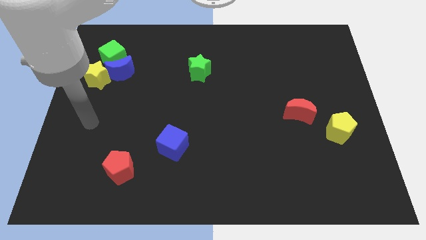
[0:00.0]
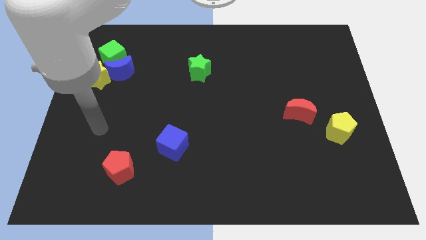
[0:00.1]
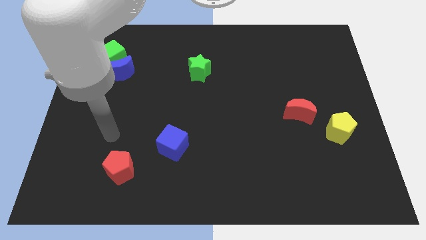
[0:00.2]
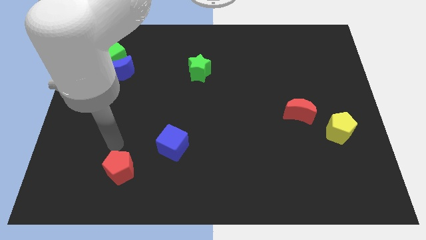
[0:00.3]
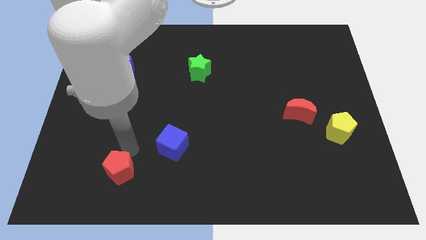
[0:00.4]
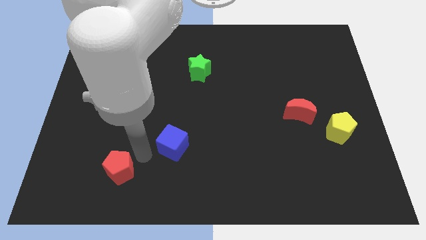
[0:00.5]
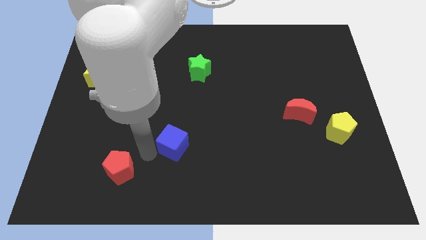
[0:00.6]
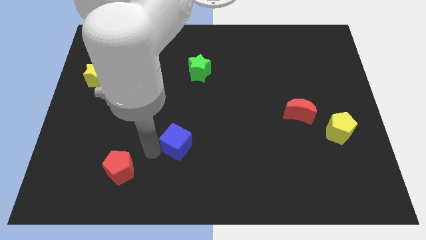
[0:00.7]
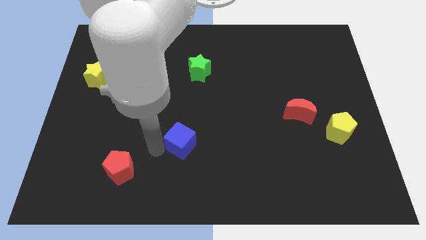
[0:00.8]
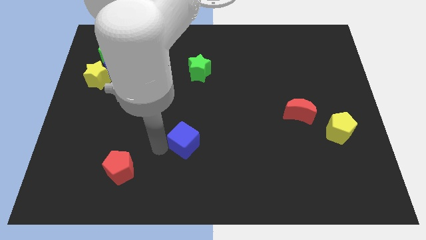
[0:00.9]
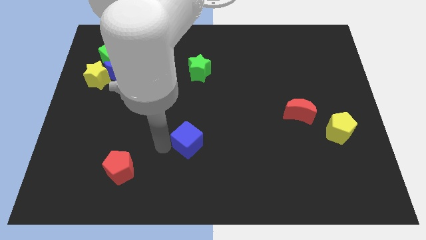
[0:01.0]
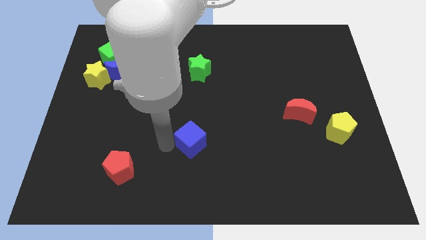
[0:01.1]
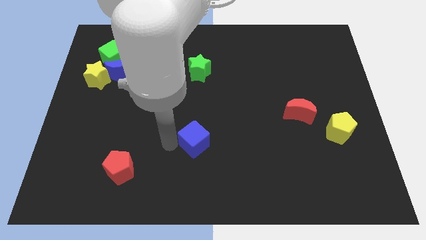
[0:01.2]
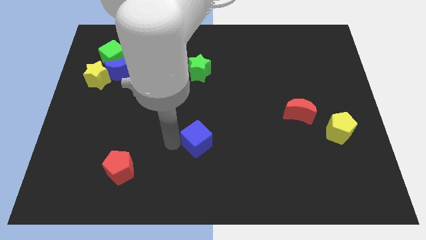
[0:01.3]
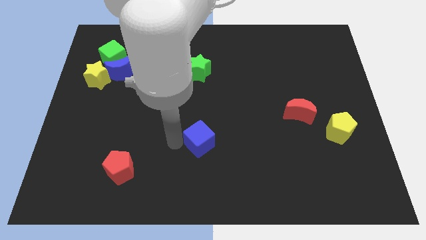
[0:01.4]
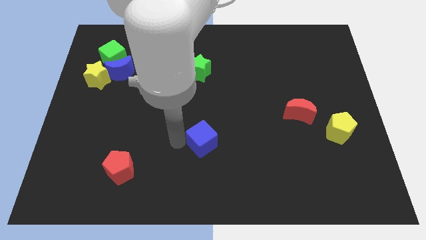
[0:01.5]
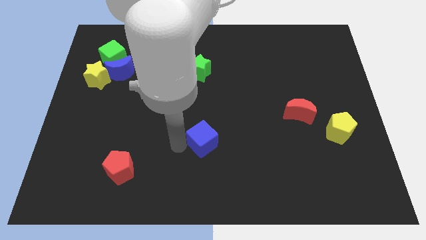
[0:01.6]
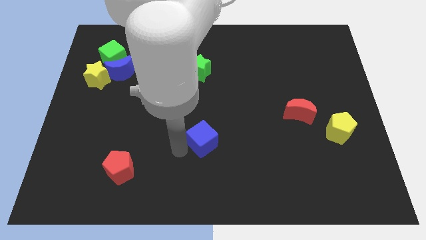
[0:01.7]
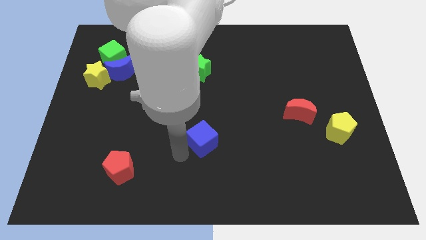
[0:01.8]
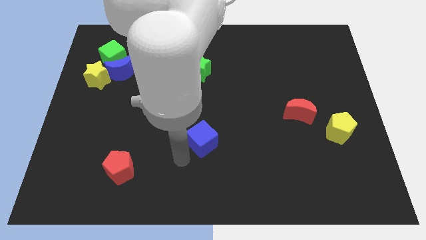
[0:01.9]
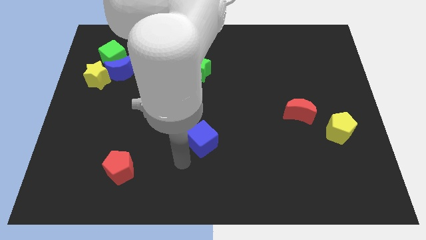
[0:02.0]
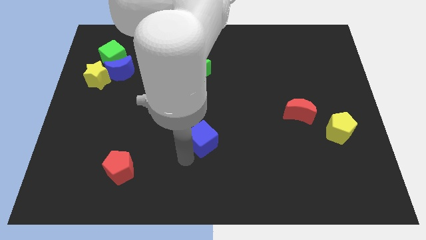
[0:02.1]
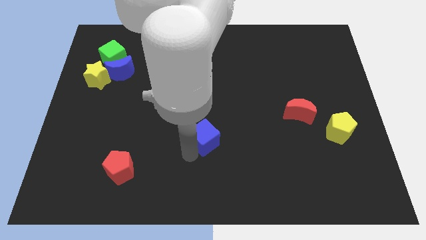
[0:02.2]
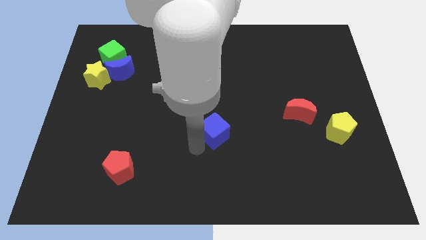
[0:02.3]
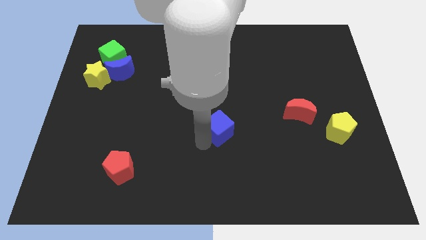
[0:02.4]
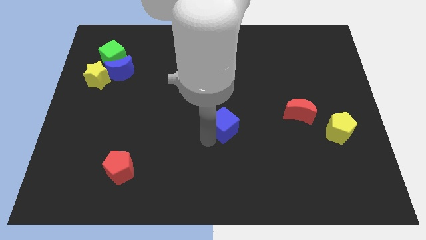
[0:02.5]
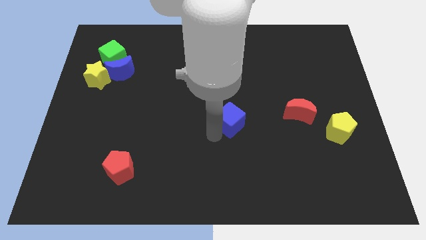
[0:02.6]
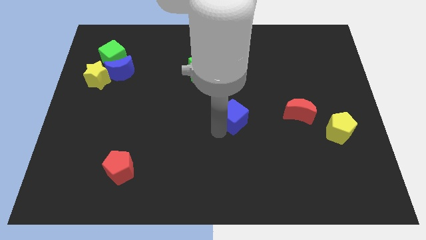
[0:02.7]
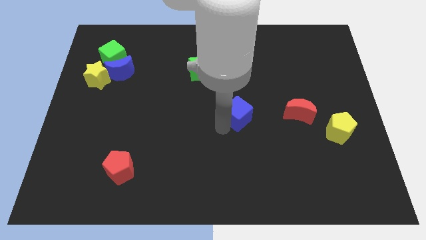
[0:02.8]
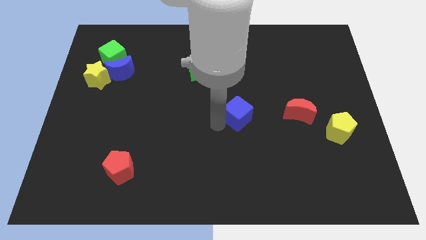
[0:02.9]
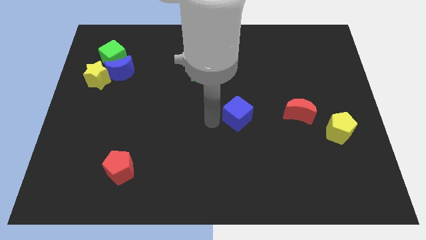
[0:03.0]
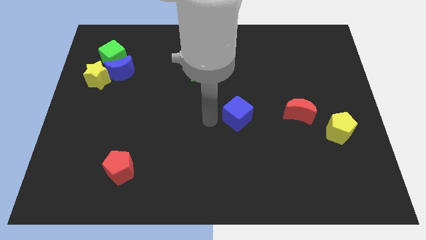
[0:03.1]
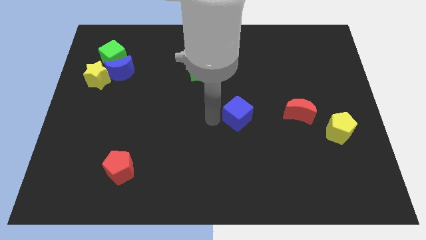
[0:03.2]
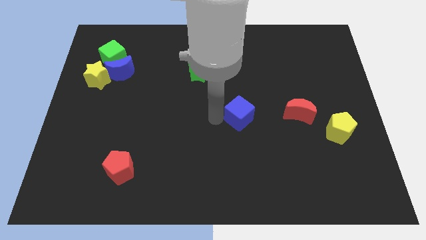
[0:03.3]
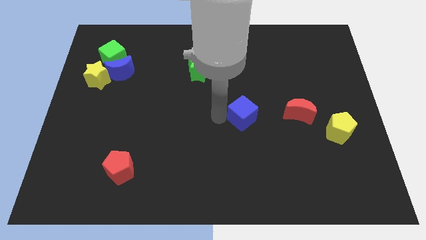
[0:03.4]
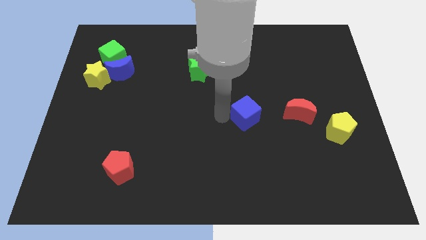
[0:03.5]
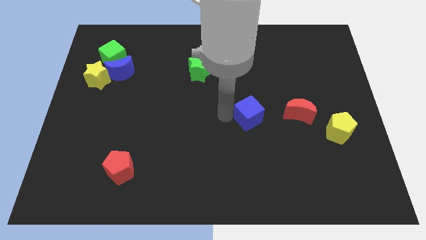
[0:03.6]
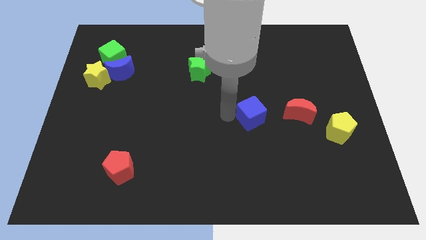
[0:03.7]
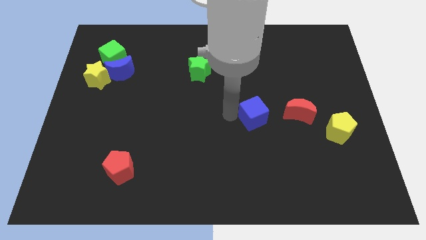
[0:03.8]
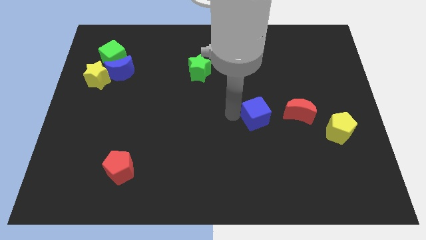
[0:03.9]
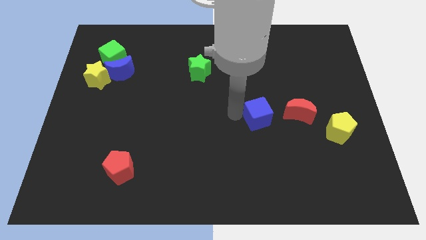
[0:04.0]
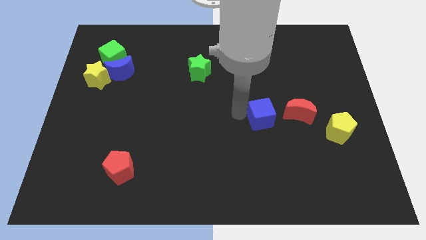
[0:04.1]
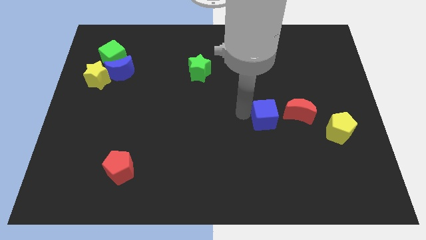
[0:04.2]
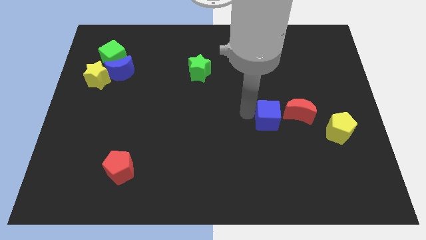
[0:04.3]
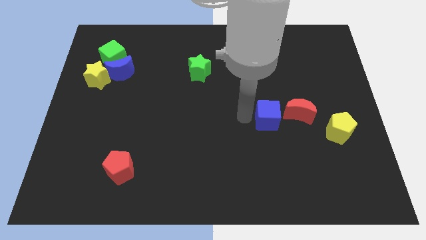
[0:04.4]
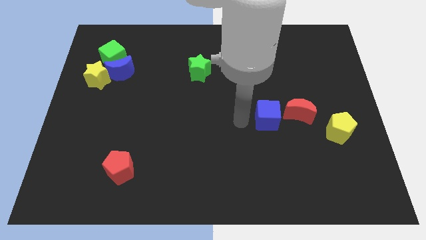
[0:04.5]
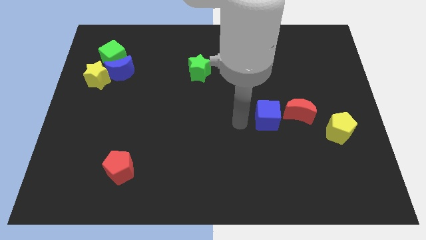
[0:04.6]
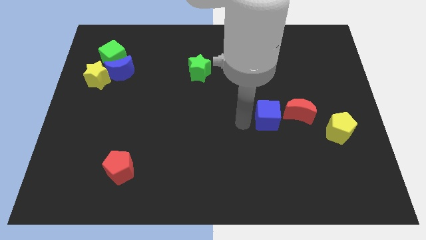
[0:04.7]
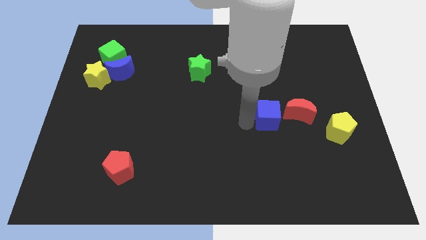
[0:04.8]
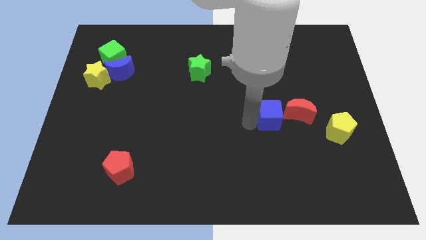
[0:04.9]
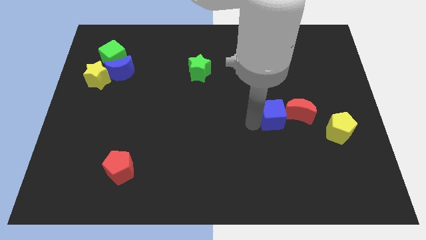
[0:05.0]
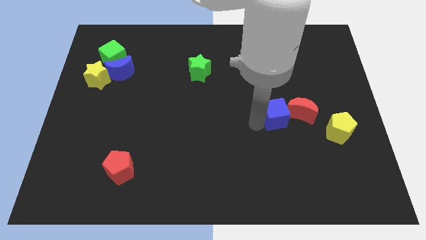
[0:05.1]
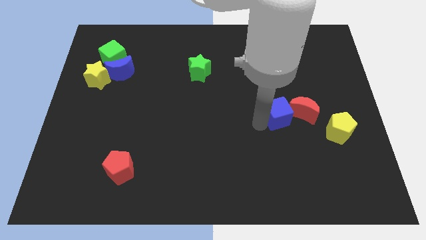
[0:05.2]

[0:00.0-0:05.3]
push the blue cube to the red moon

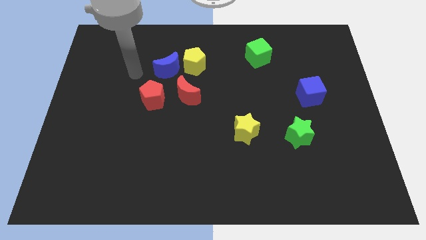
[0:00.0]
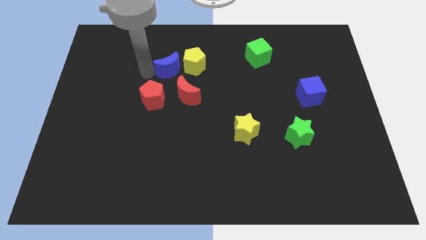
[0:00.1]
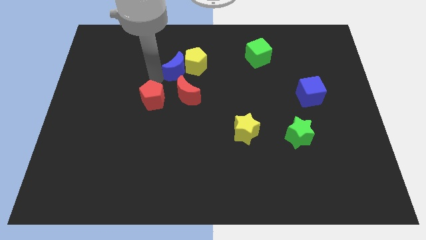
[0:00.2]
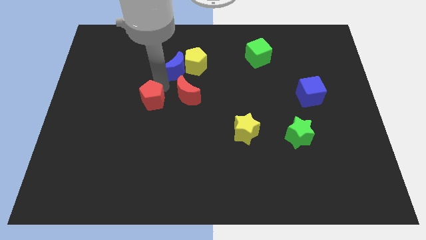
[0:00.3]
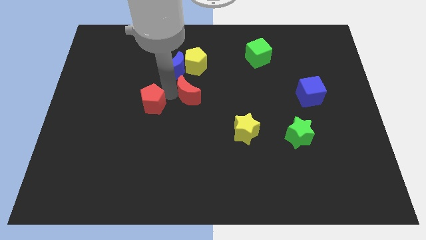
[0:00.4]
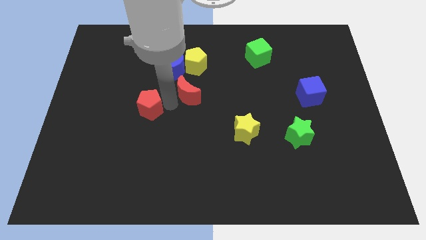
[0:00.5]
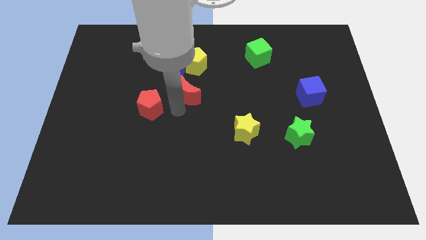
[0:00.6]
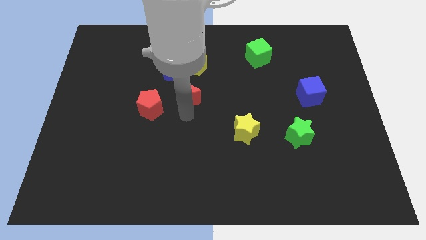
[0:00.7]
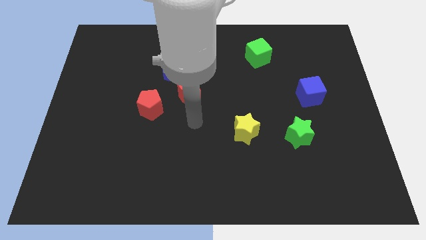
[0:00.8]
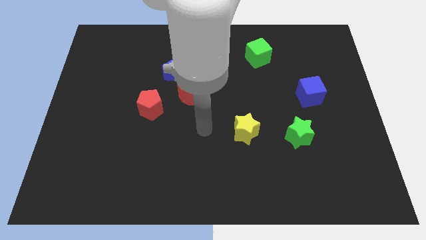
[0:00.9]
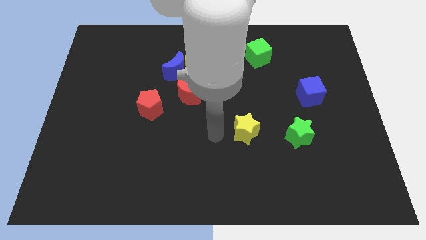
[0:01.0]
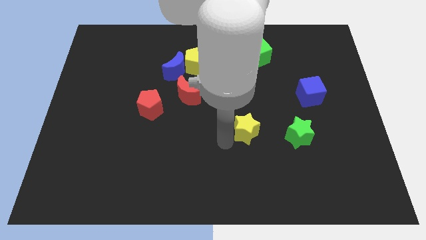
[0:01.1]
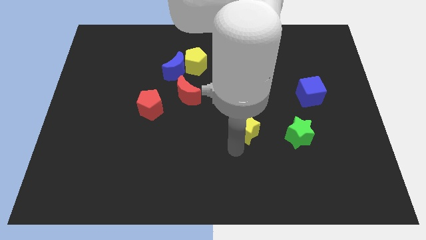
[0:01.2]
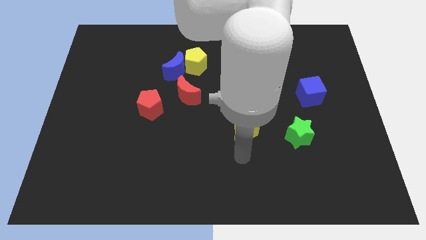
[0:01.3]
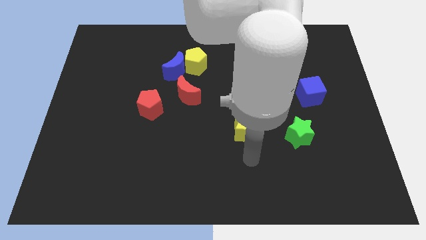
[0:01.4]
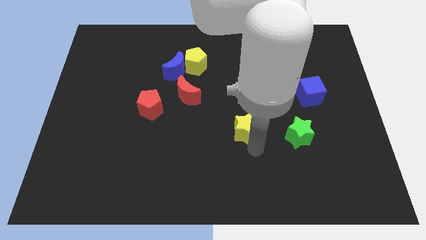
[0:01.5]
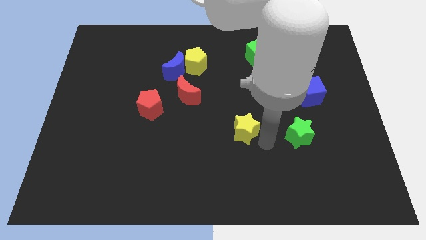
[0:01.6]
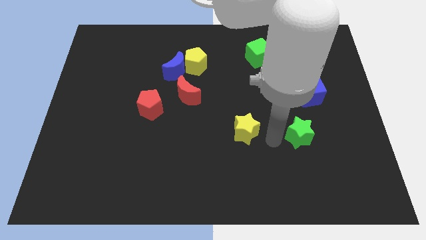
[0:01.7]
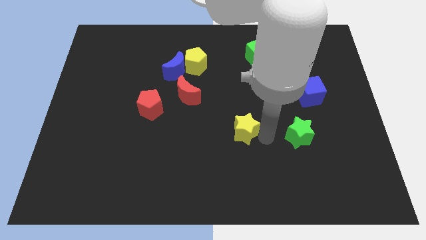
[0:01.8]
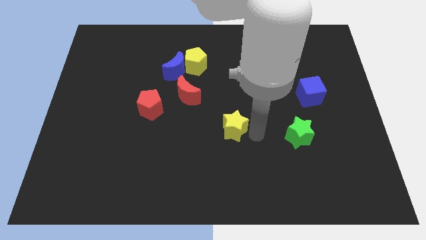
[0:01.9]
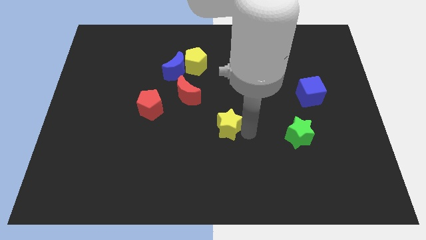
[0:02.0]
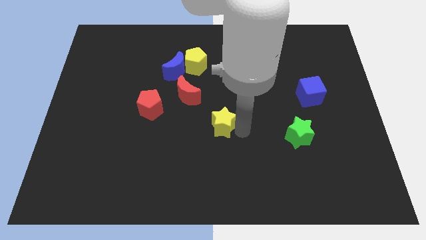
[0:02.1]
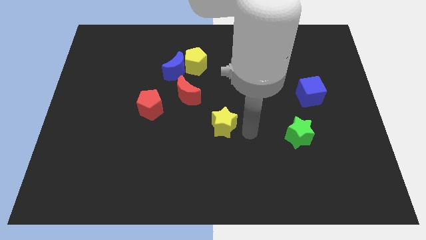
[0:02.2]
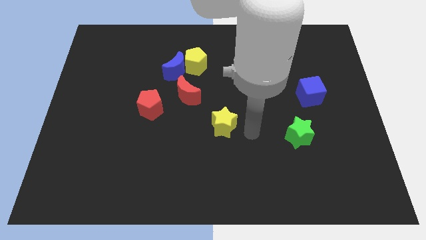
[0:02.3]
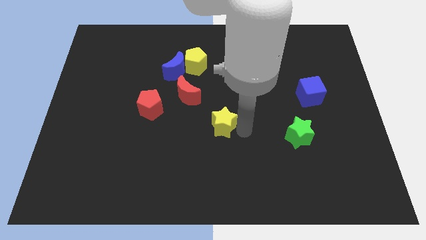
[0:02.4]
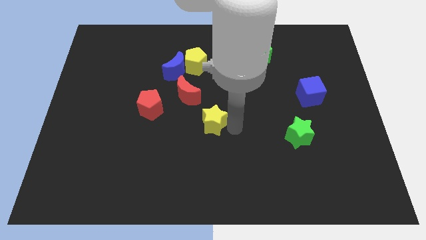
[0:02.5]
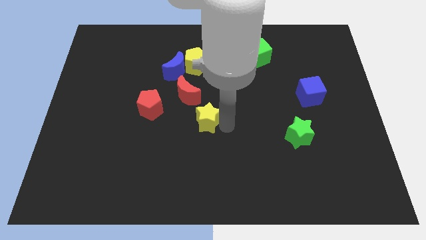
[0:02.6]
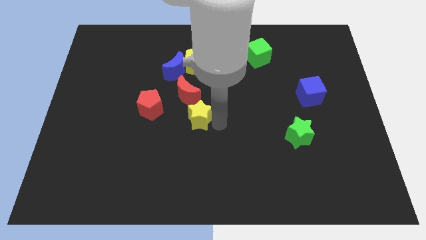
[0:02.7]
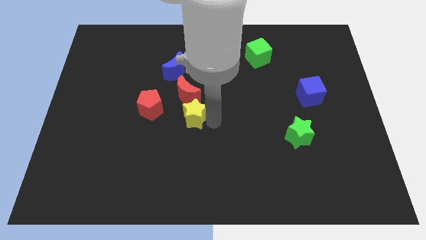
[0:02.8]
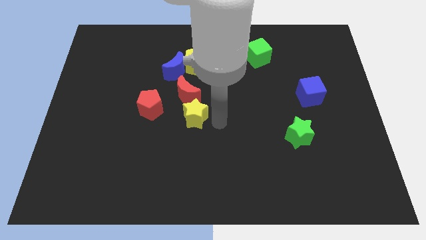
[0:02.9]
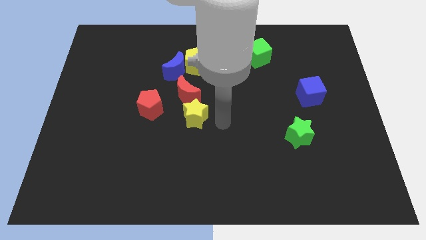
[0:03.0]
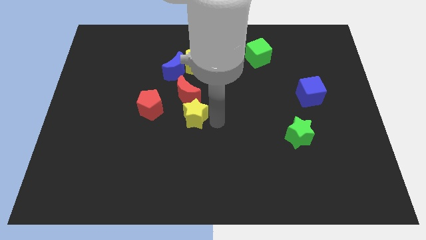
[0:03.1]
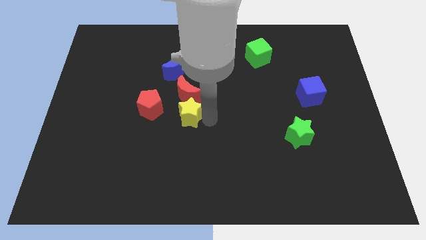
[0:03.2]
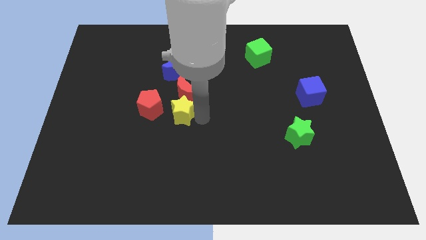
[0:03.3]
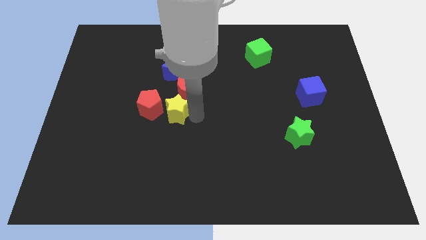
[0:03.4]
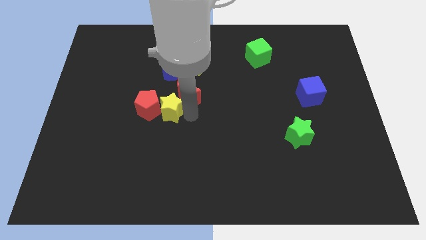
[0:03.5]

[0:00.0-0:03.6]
push the yellow star next to the red pentagon
